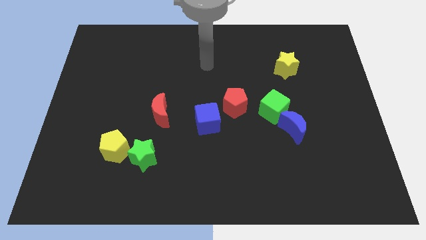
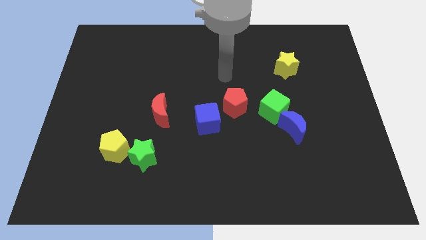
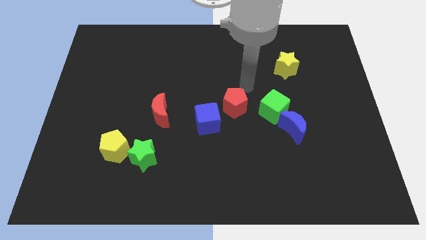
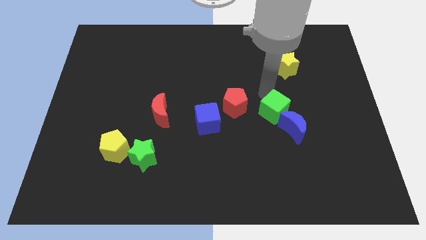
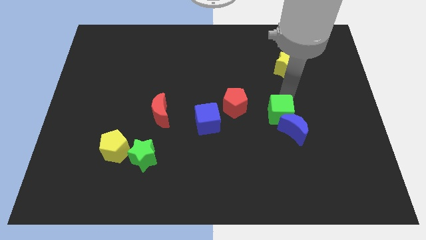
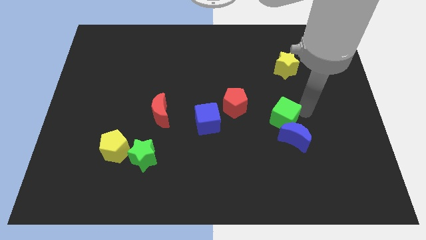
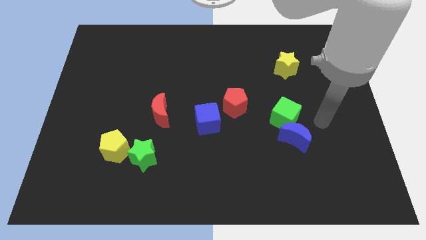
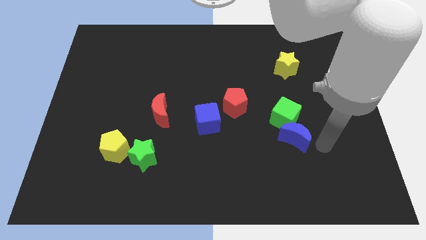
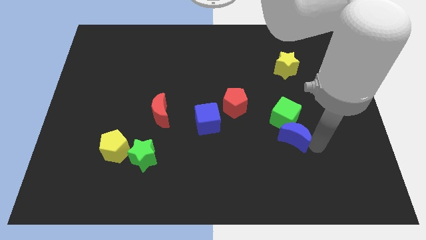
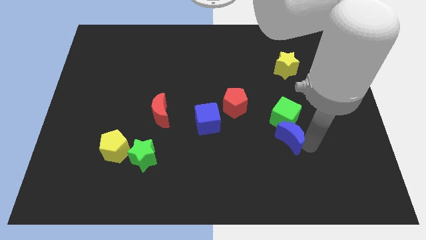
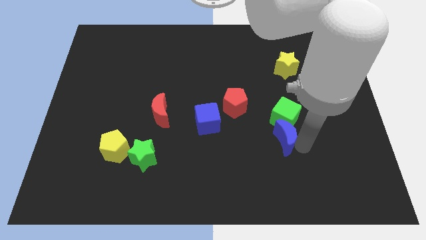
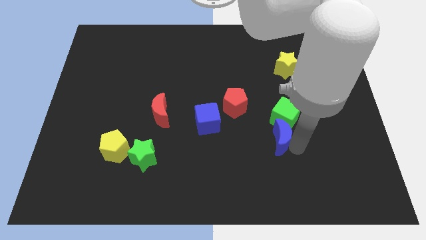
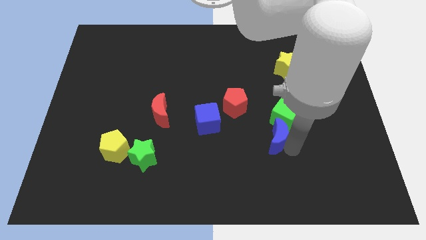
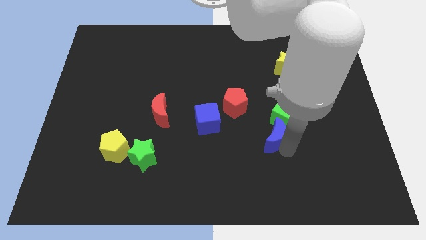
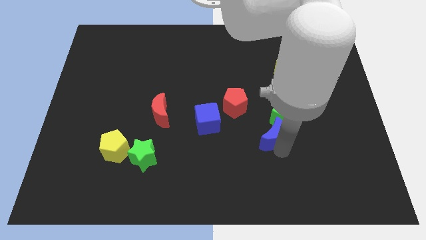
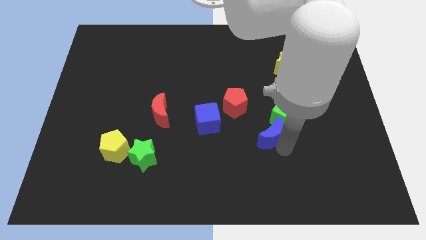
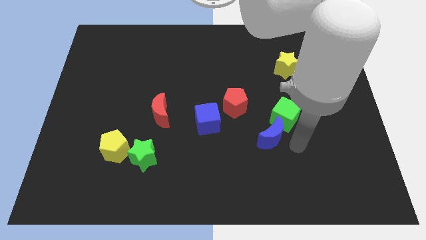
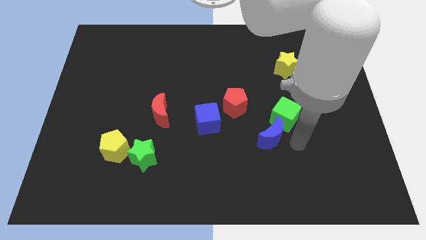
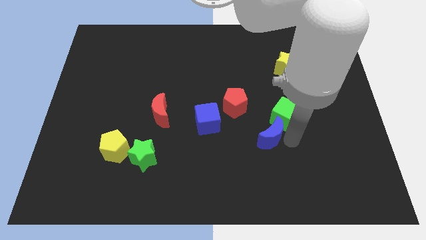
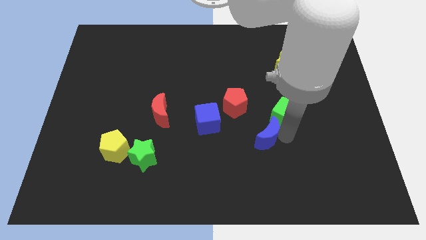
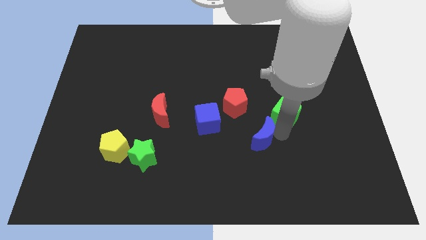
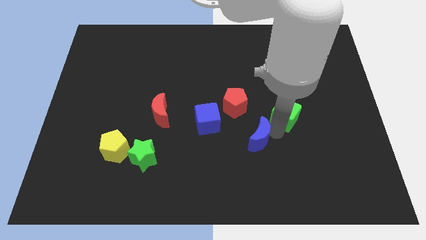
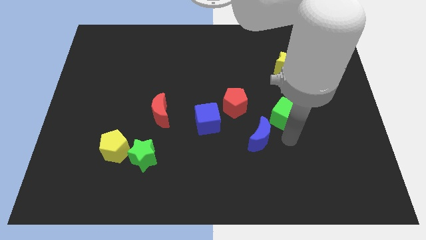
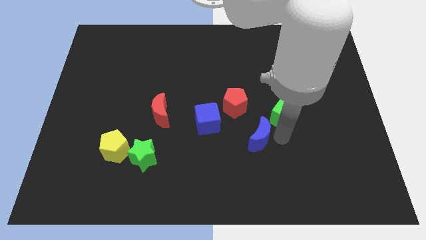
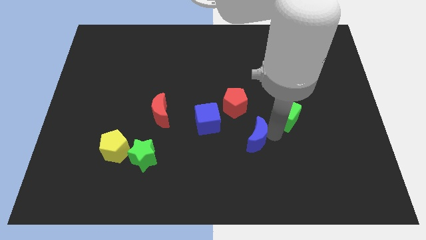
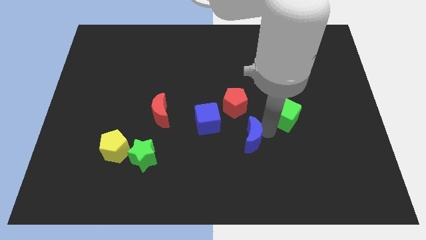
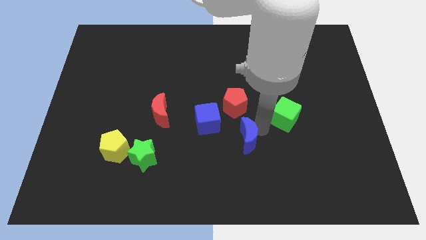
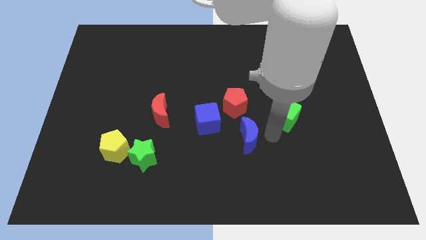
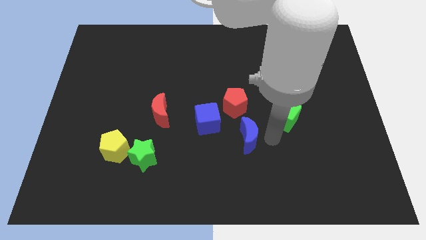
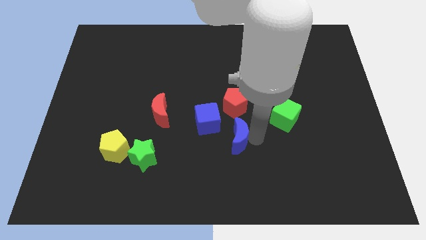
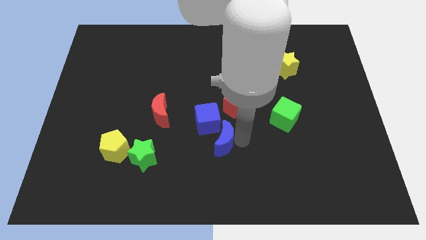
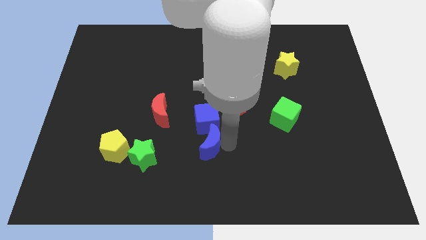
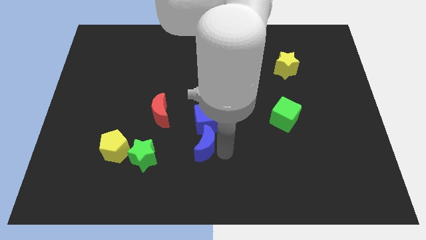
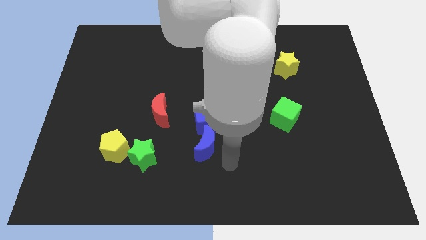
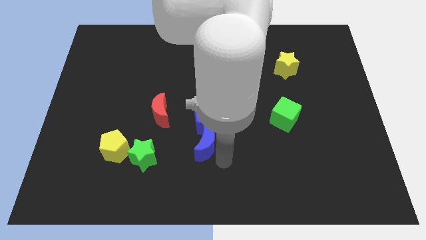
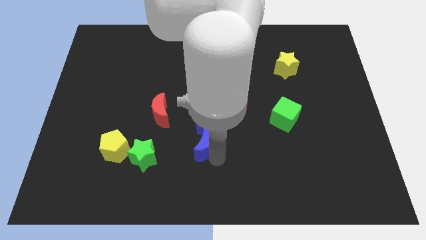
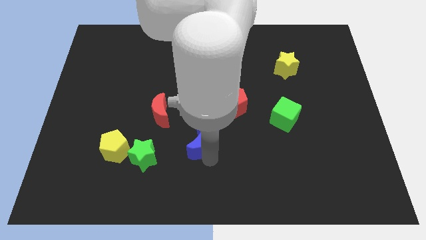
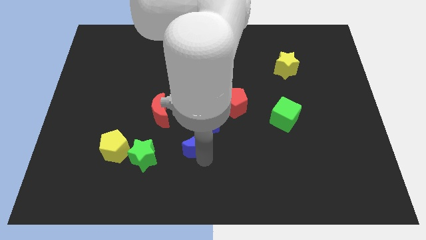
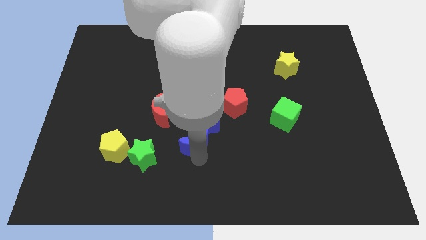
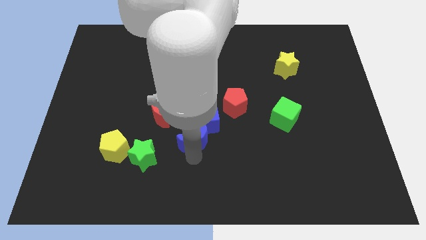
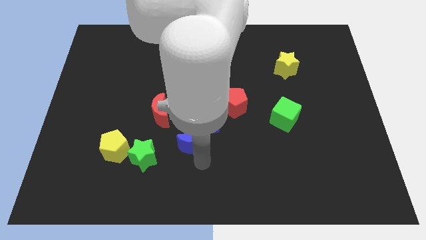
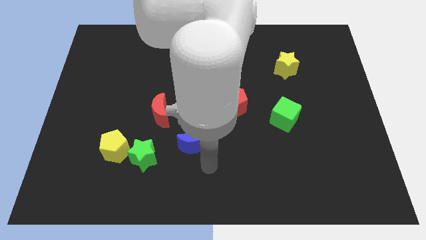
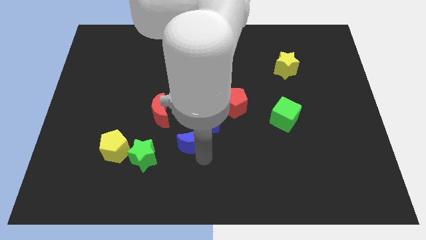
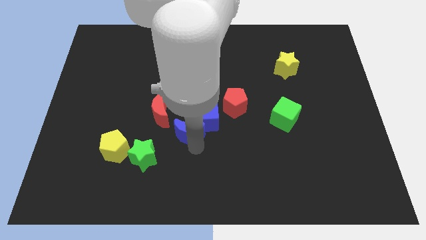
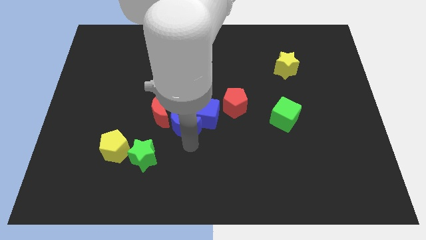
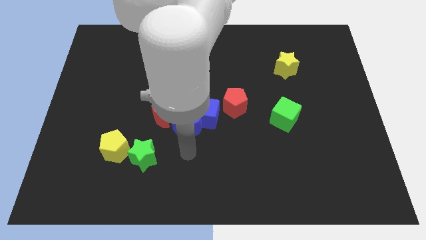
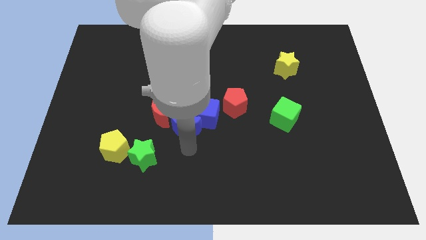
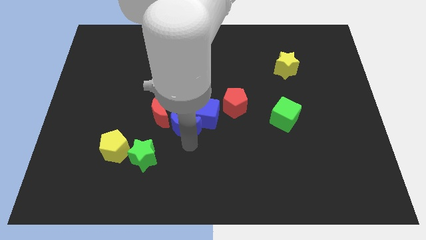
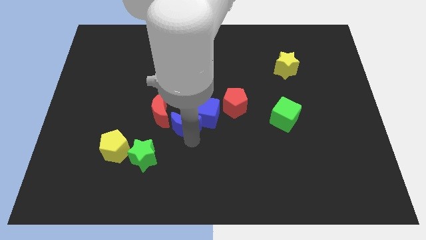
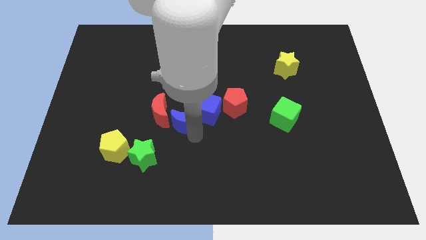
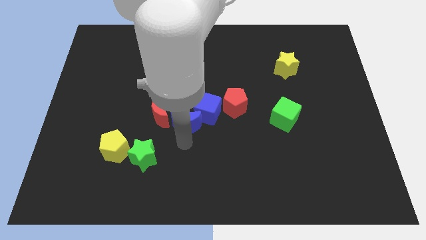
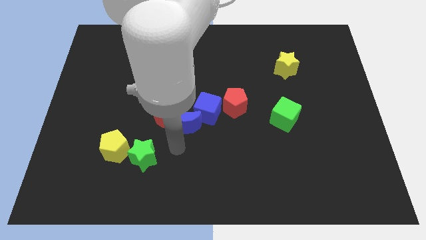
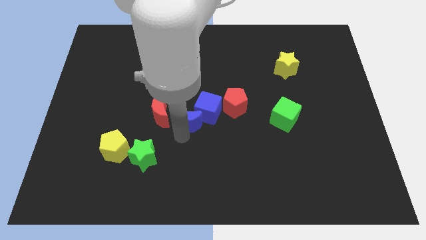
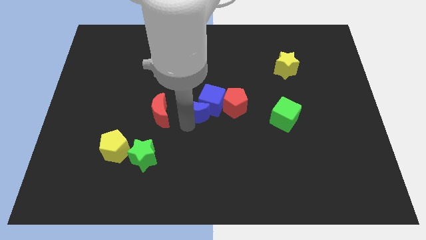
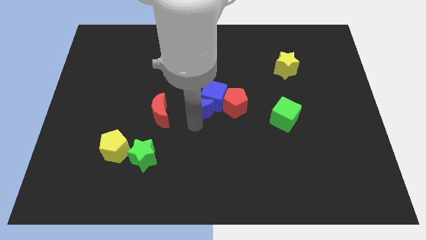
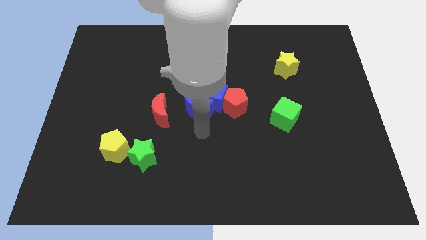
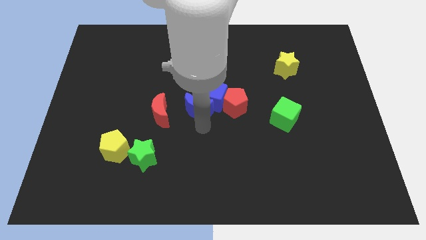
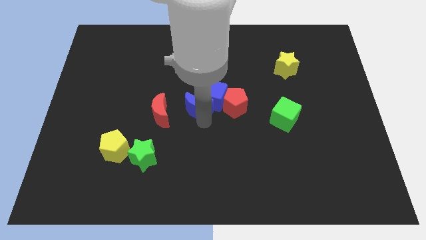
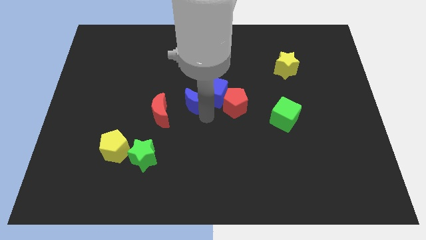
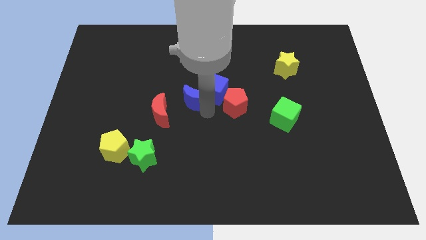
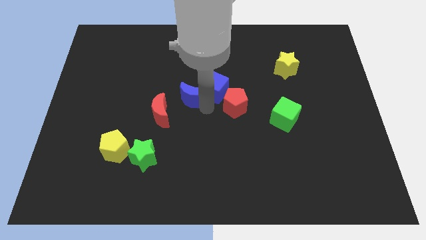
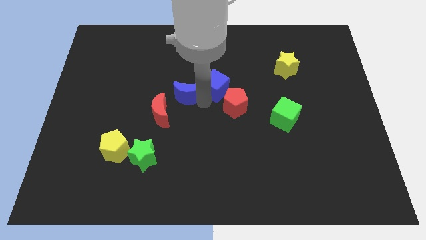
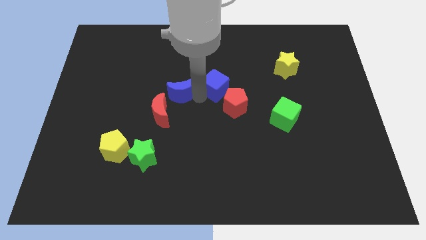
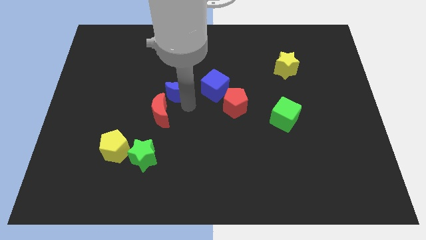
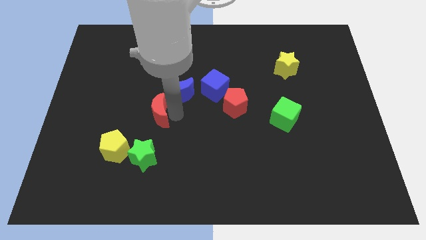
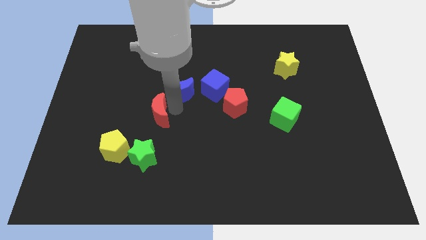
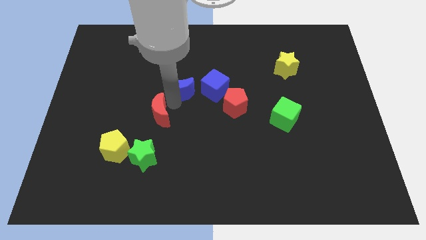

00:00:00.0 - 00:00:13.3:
move the blue moon up and left

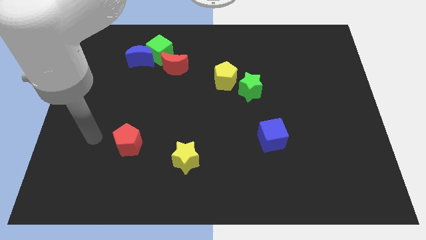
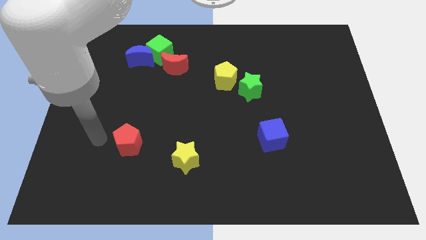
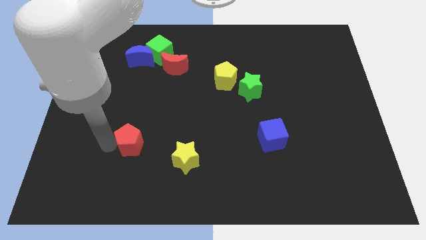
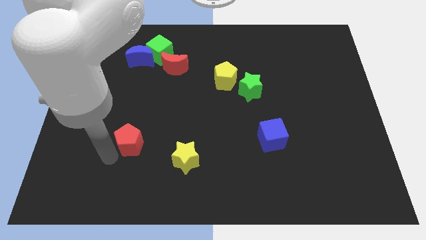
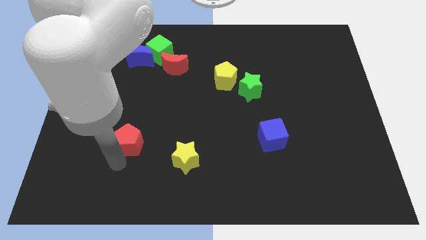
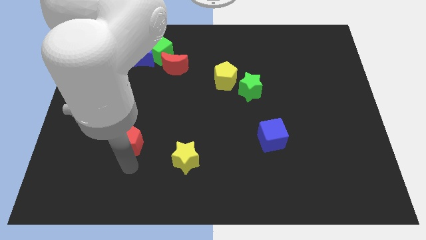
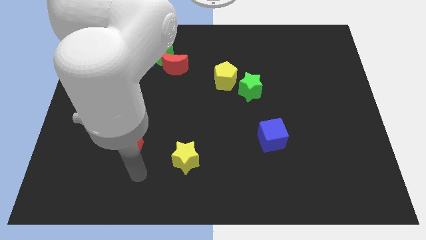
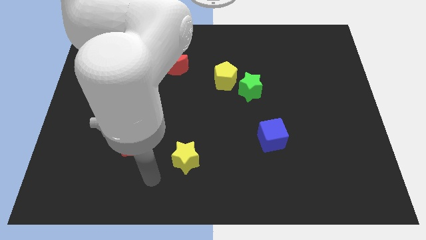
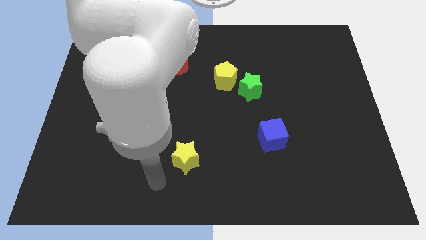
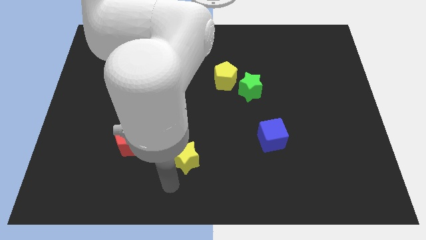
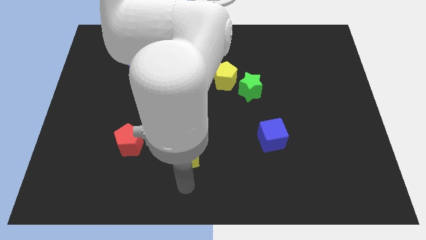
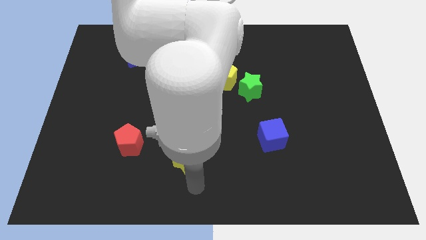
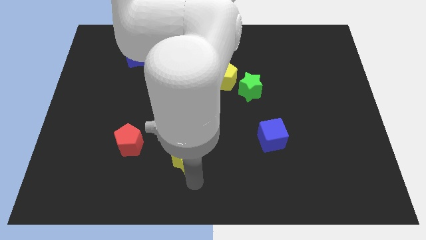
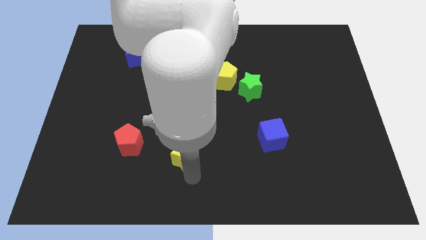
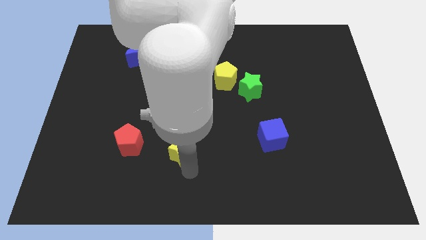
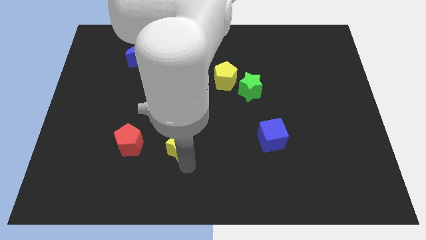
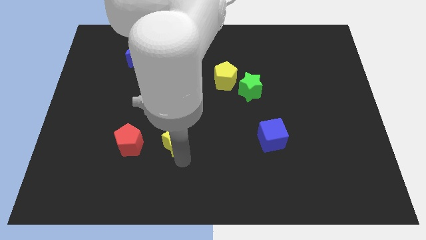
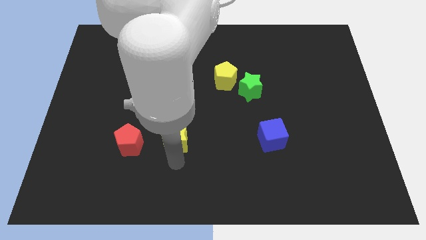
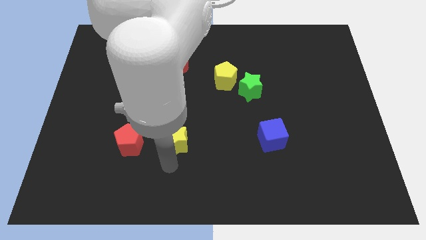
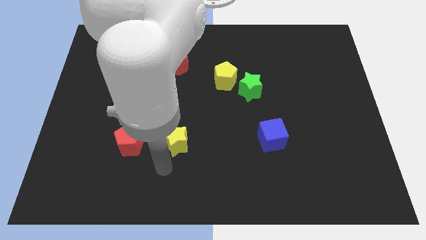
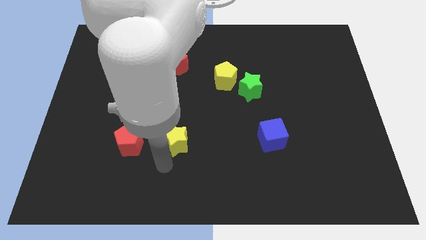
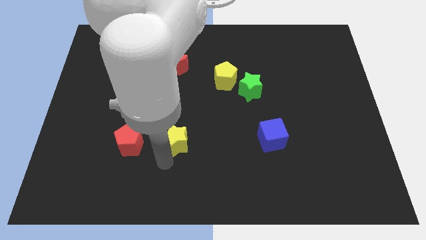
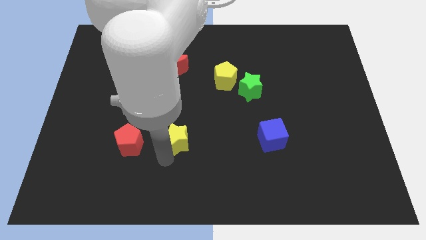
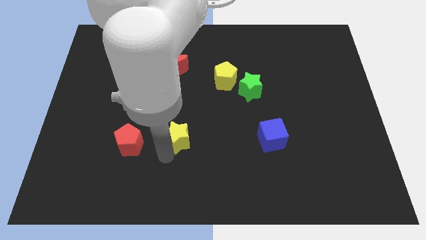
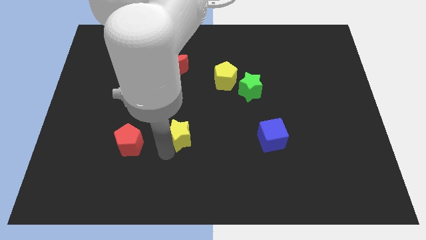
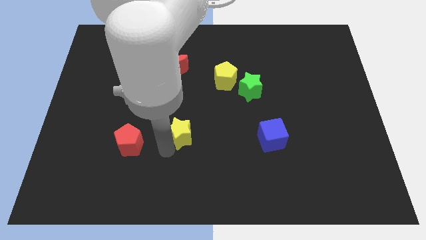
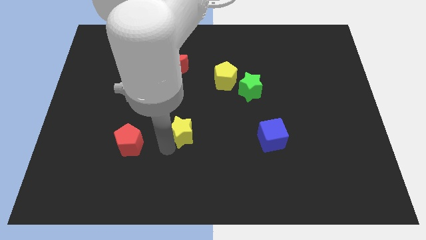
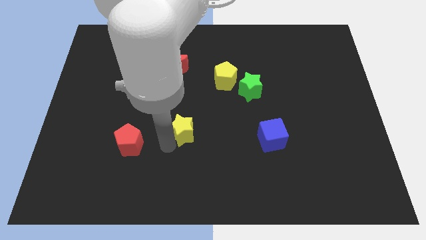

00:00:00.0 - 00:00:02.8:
move the yellow star somewhat upwards
